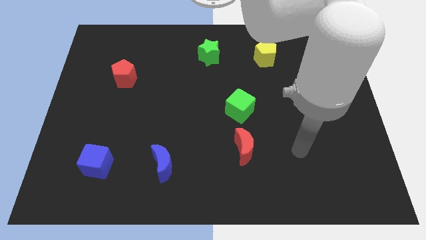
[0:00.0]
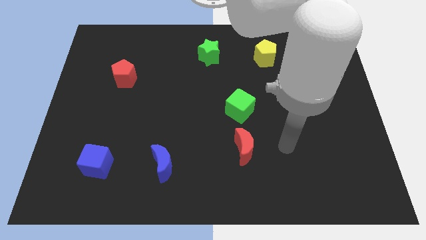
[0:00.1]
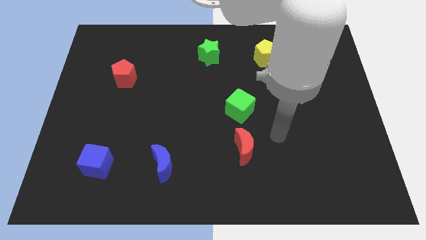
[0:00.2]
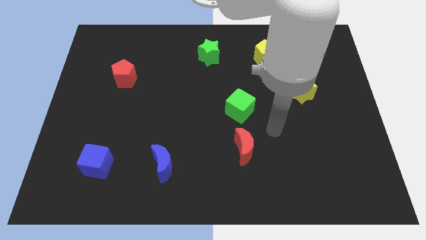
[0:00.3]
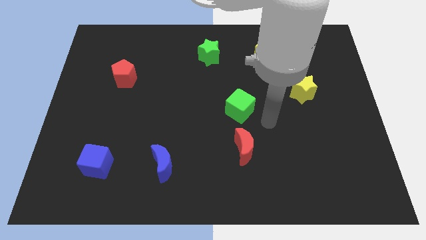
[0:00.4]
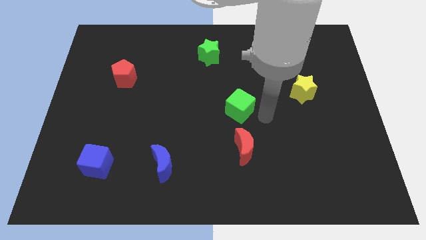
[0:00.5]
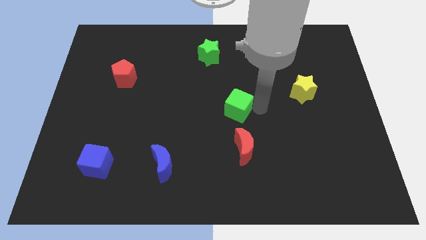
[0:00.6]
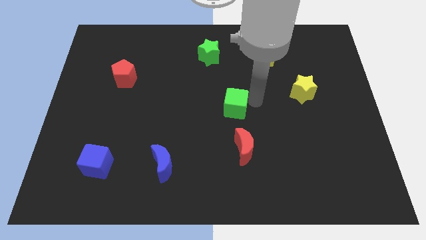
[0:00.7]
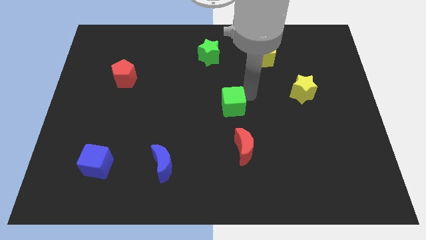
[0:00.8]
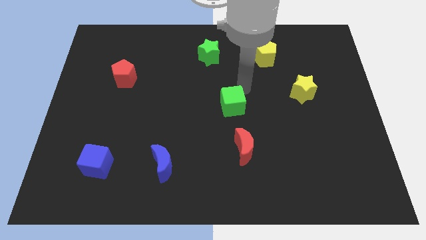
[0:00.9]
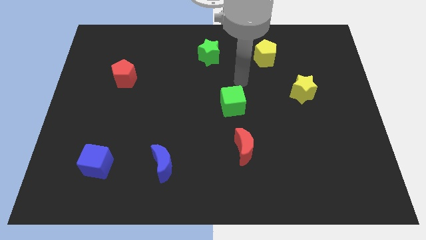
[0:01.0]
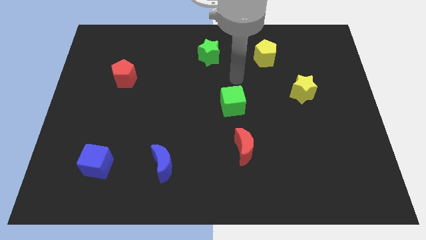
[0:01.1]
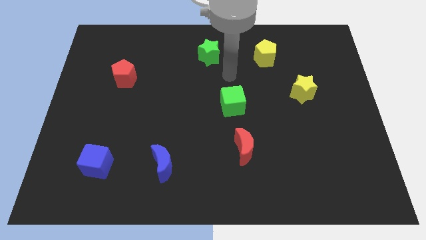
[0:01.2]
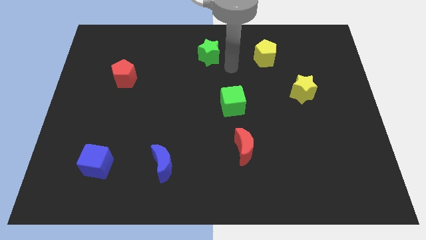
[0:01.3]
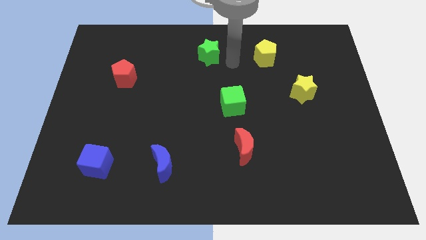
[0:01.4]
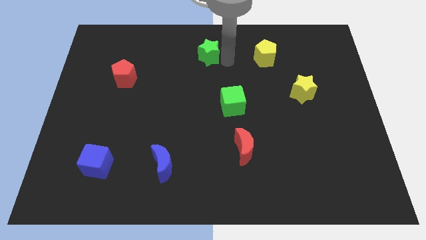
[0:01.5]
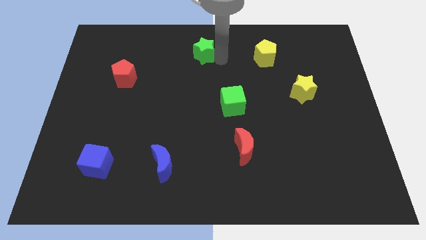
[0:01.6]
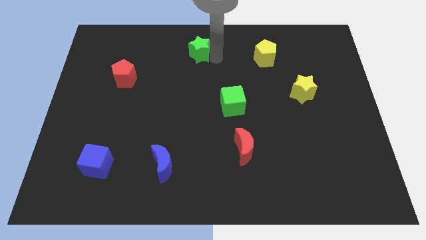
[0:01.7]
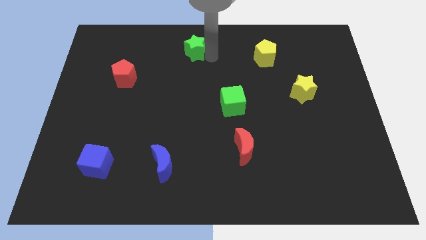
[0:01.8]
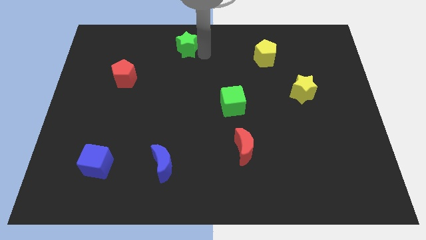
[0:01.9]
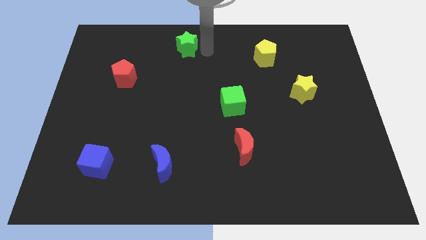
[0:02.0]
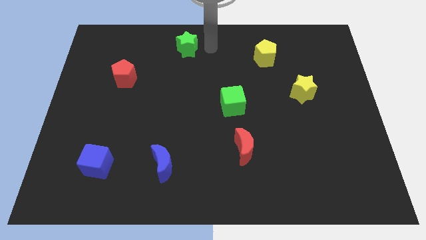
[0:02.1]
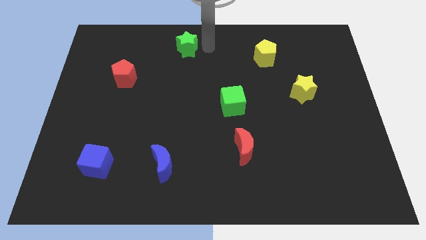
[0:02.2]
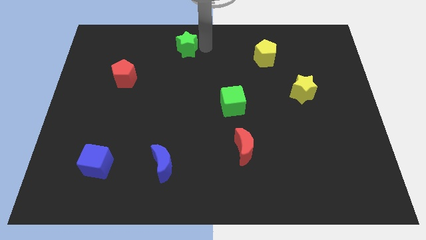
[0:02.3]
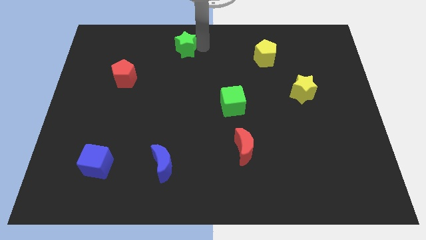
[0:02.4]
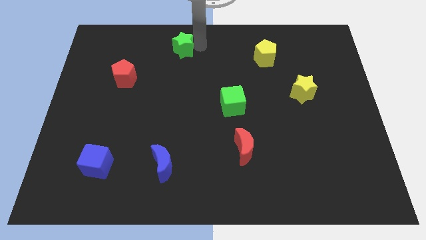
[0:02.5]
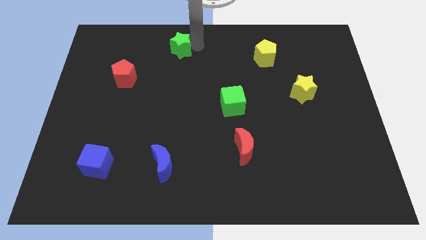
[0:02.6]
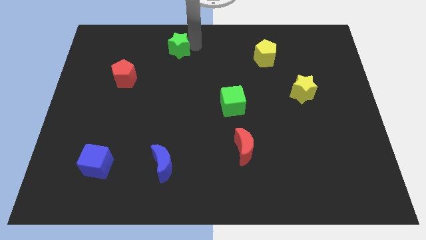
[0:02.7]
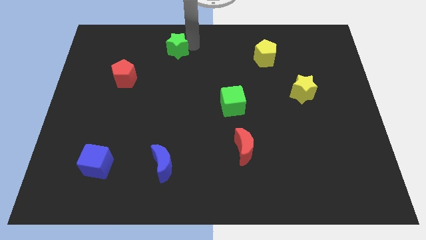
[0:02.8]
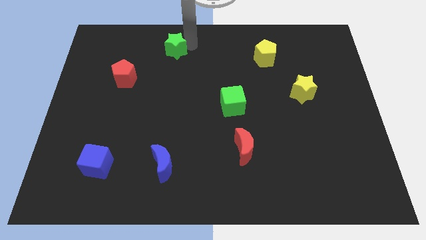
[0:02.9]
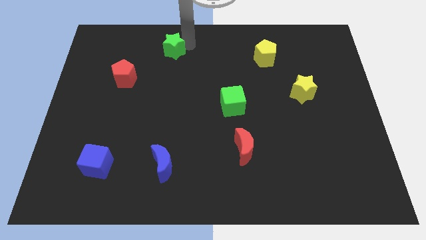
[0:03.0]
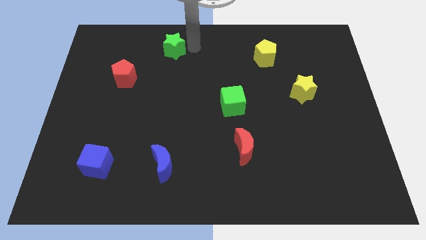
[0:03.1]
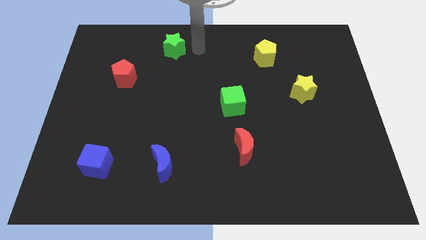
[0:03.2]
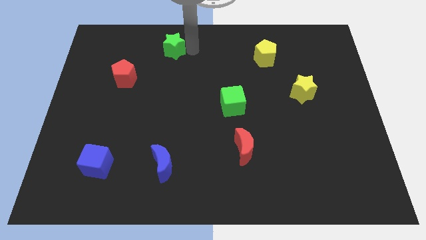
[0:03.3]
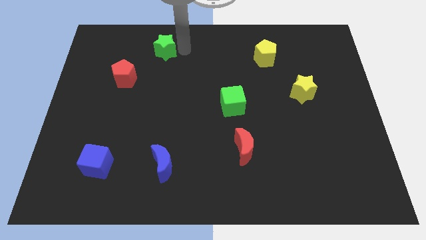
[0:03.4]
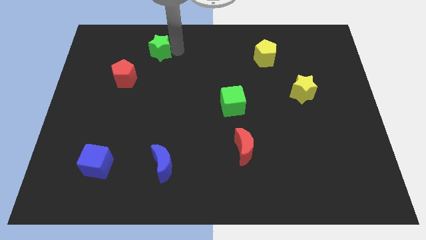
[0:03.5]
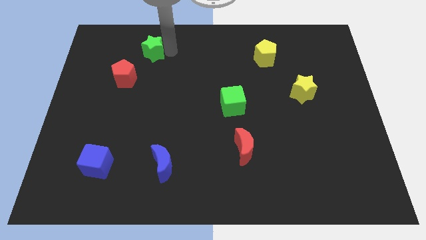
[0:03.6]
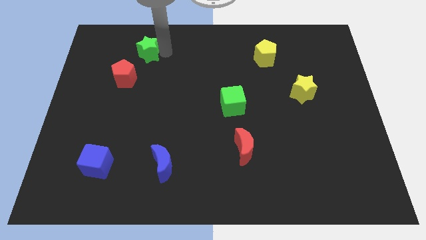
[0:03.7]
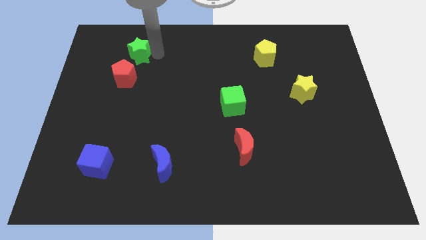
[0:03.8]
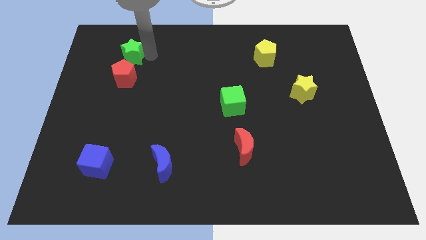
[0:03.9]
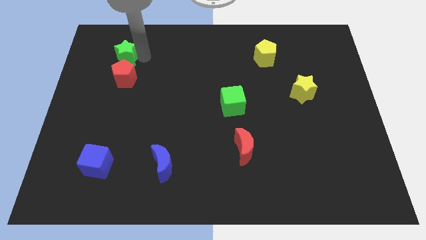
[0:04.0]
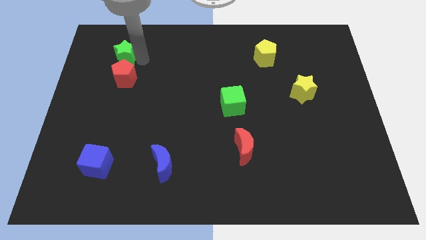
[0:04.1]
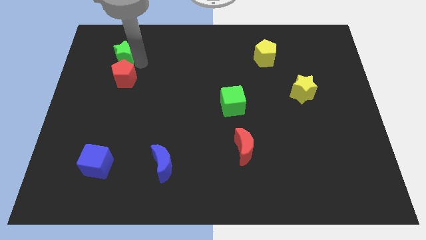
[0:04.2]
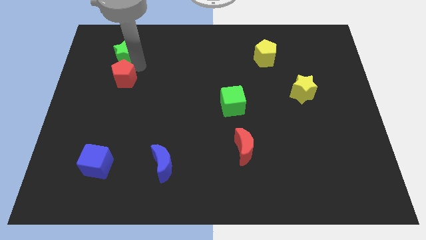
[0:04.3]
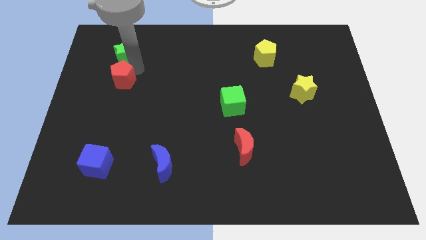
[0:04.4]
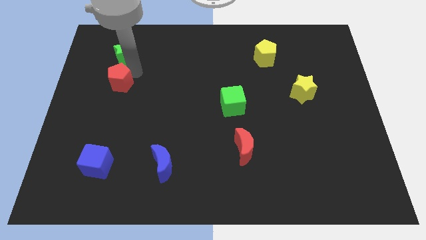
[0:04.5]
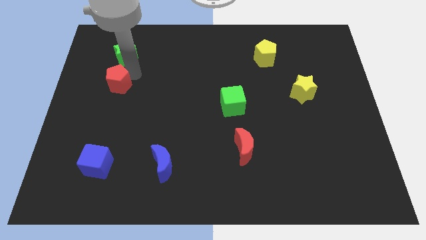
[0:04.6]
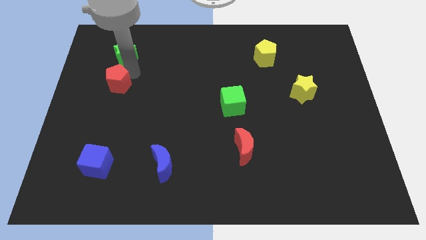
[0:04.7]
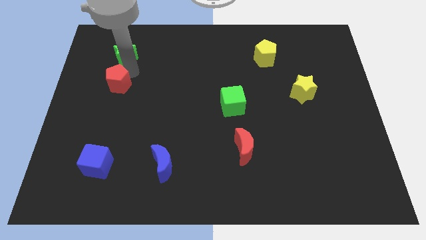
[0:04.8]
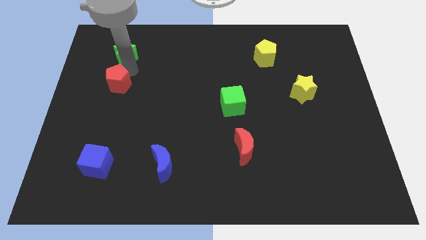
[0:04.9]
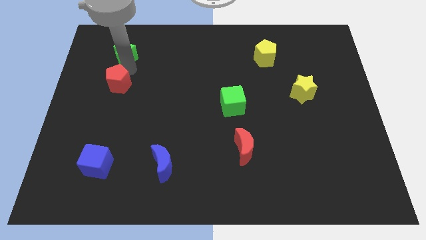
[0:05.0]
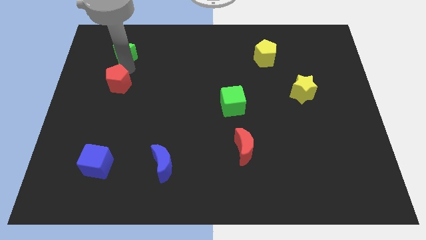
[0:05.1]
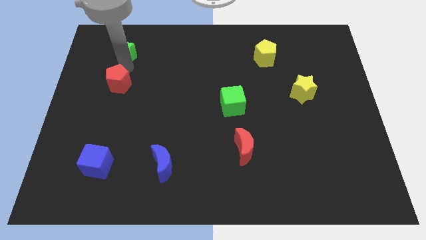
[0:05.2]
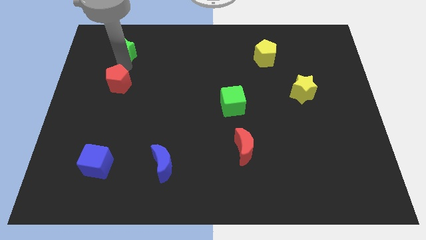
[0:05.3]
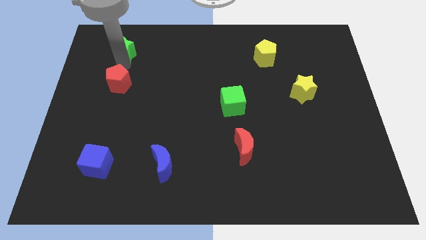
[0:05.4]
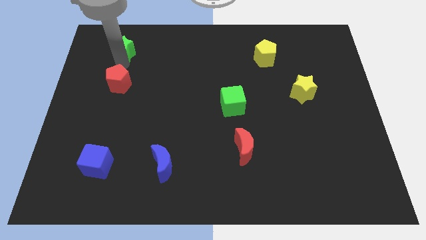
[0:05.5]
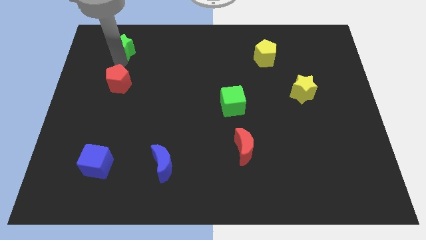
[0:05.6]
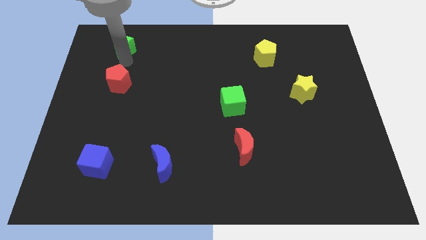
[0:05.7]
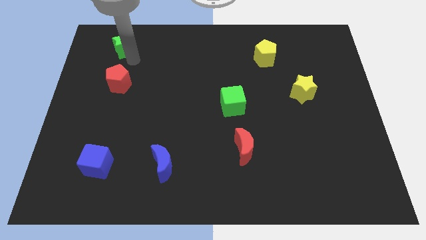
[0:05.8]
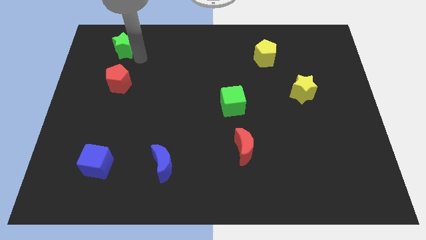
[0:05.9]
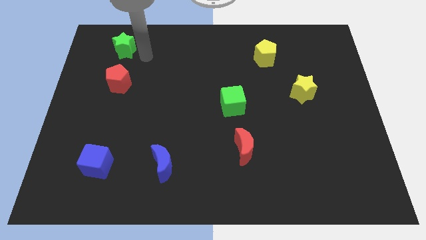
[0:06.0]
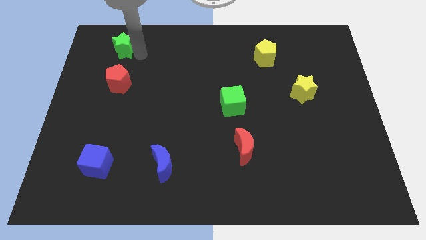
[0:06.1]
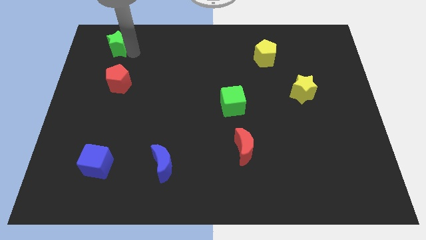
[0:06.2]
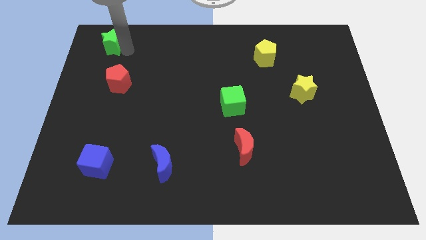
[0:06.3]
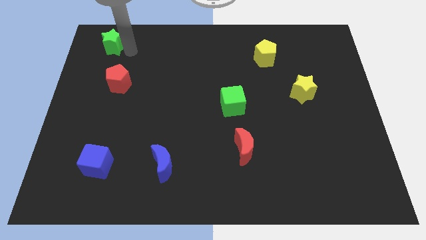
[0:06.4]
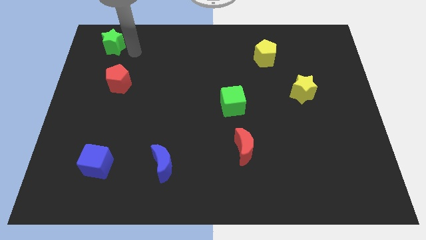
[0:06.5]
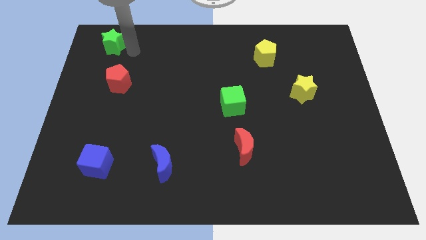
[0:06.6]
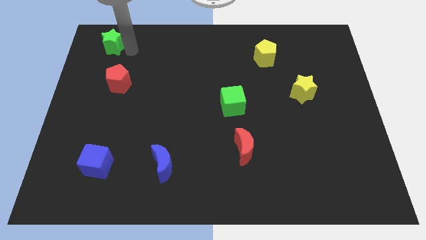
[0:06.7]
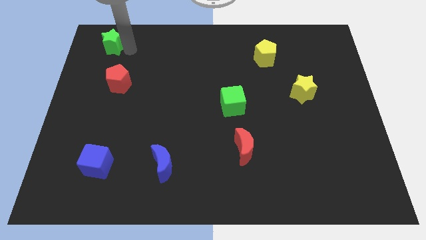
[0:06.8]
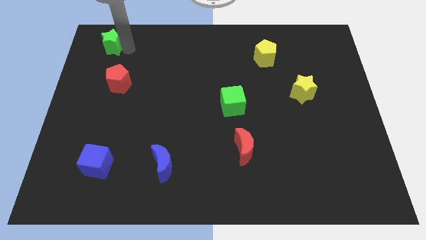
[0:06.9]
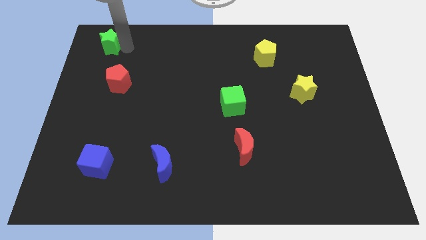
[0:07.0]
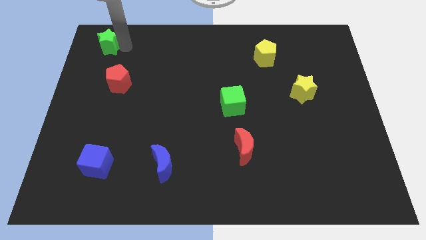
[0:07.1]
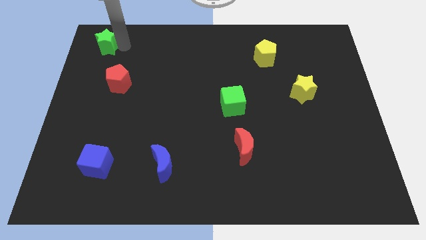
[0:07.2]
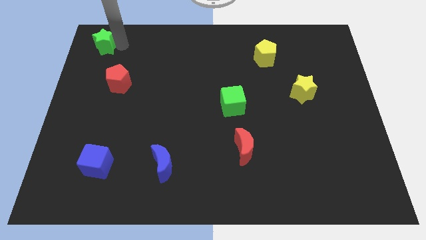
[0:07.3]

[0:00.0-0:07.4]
put the green star to the top left corner
